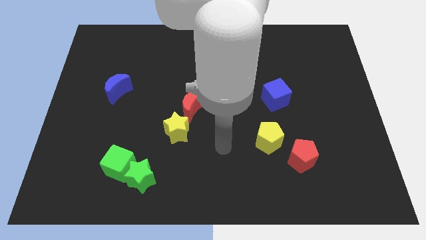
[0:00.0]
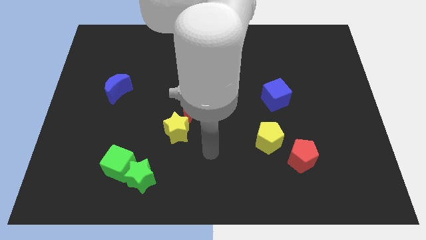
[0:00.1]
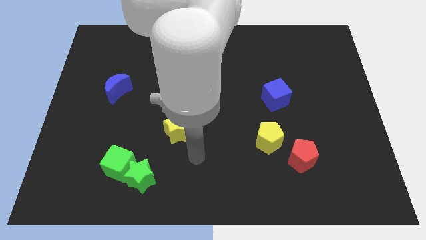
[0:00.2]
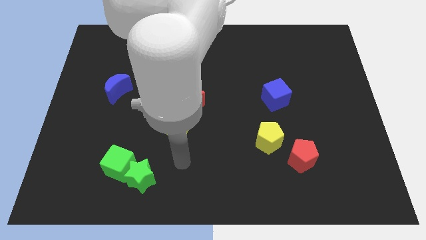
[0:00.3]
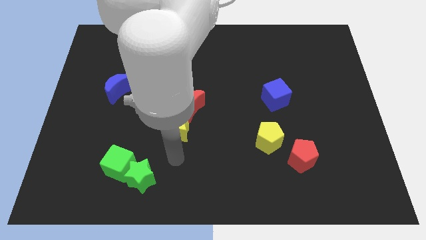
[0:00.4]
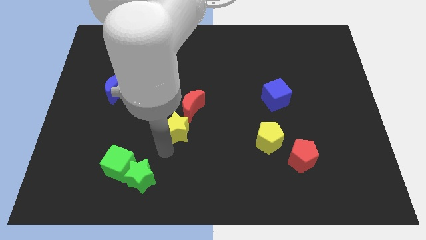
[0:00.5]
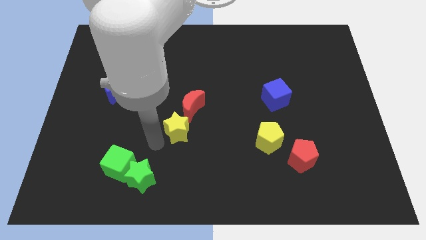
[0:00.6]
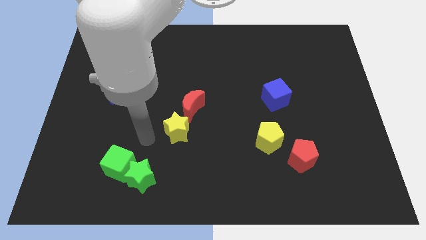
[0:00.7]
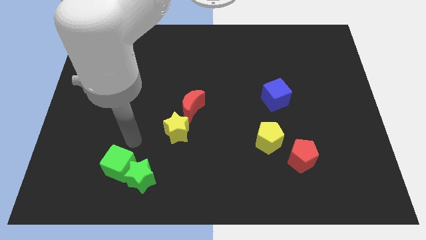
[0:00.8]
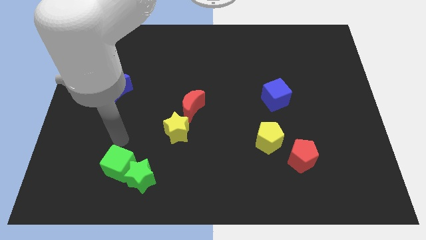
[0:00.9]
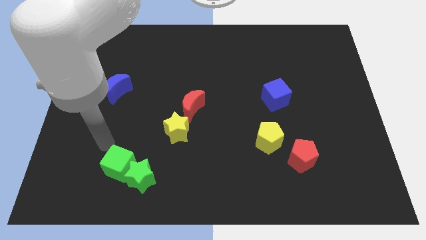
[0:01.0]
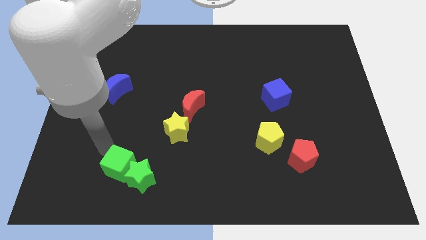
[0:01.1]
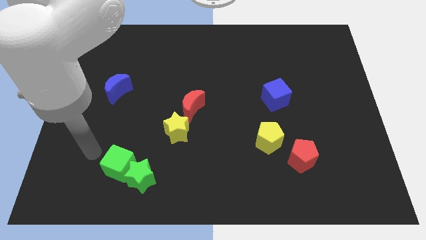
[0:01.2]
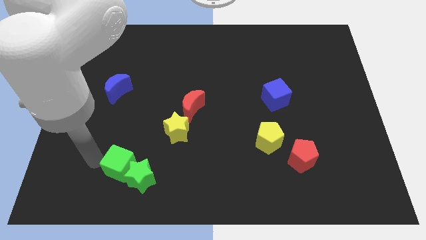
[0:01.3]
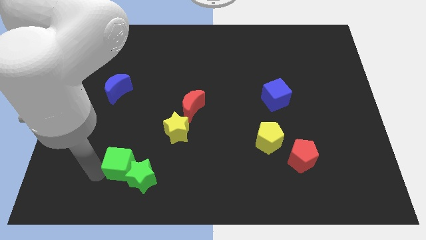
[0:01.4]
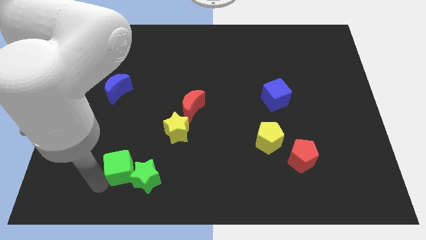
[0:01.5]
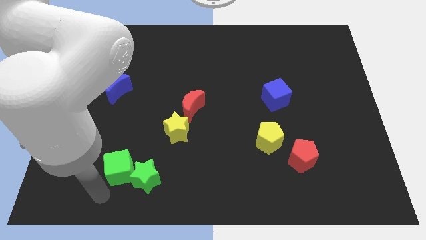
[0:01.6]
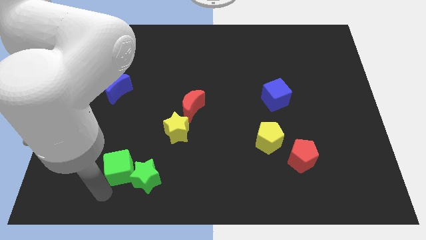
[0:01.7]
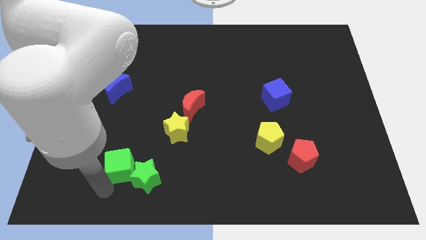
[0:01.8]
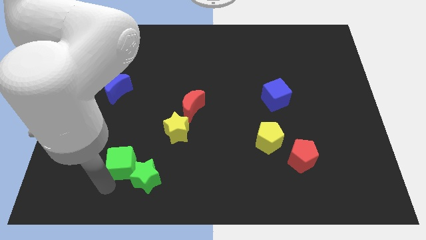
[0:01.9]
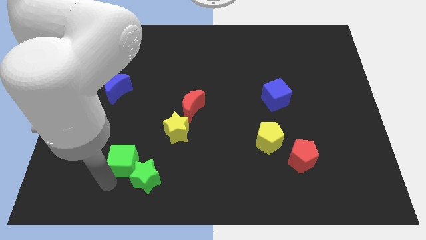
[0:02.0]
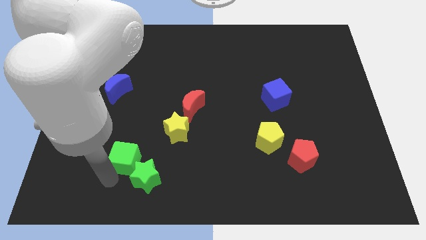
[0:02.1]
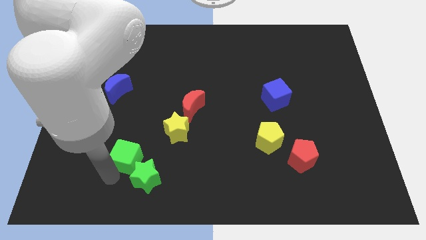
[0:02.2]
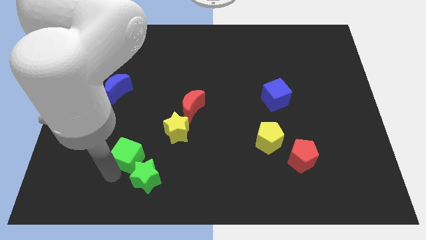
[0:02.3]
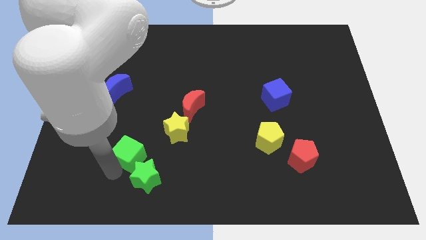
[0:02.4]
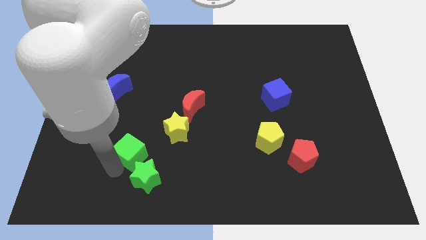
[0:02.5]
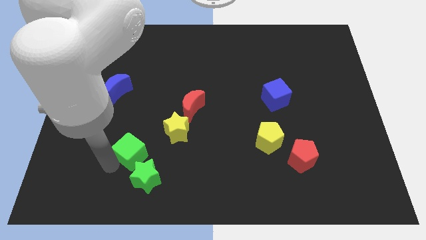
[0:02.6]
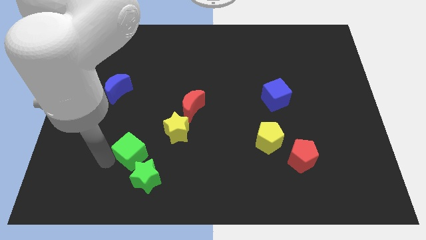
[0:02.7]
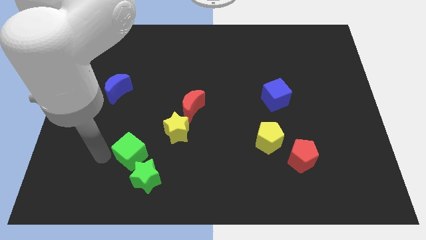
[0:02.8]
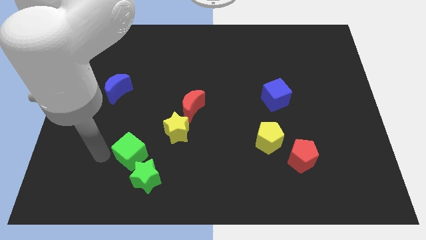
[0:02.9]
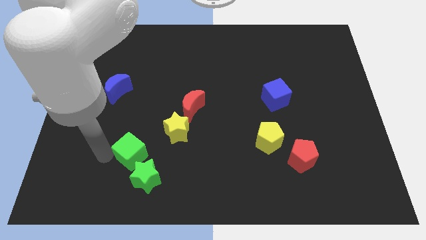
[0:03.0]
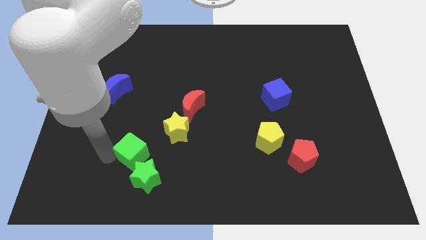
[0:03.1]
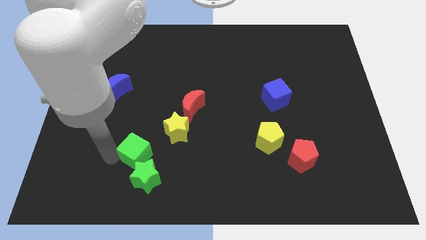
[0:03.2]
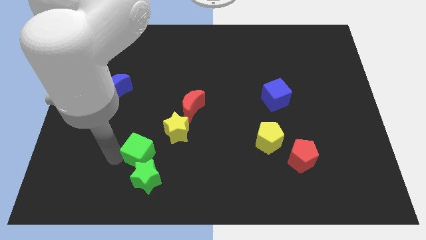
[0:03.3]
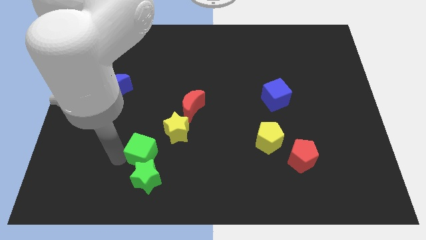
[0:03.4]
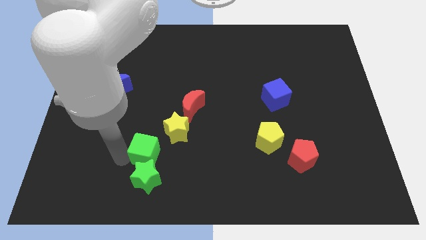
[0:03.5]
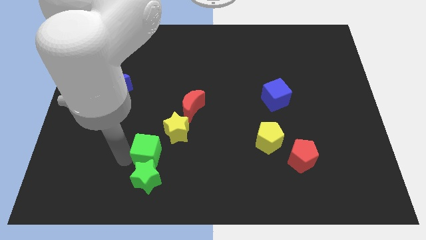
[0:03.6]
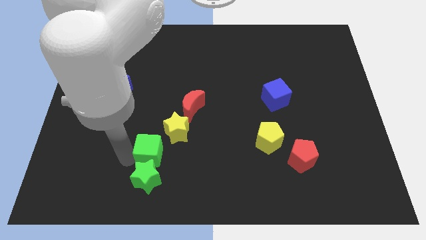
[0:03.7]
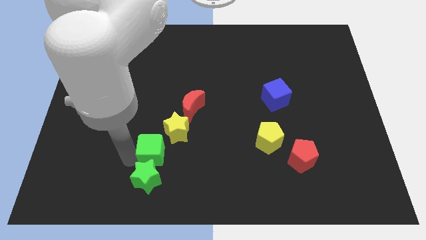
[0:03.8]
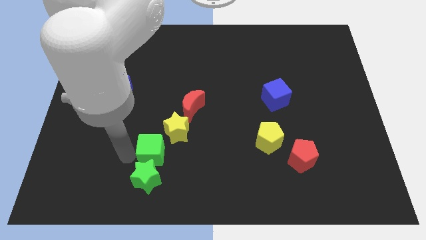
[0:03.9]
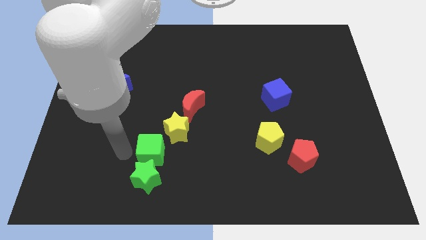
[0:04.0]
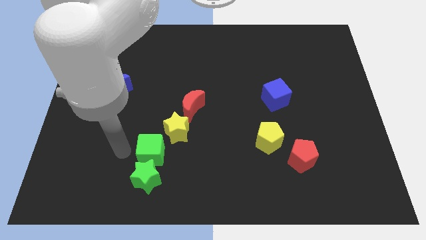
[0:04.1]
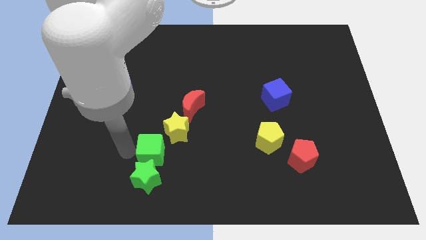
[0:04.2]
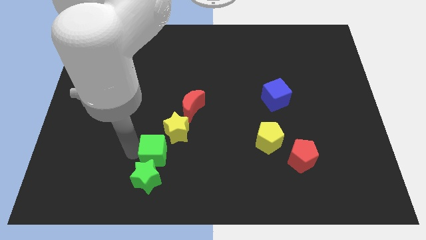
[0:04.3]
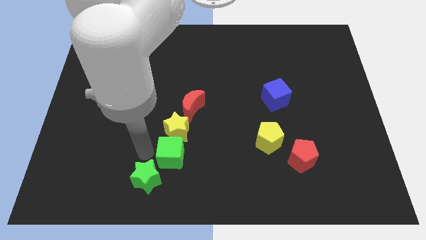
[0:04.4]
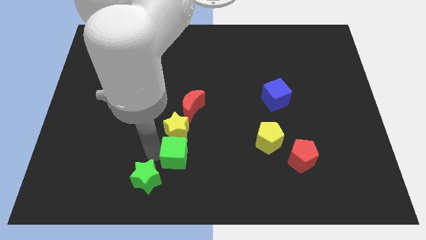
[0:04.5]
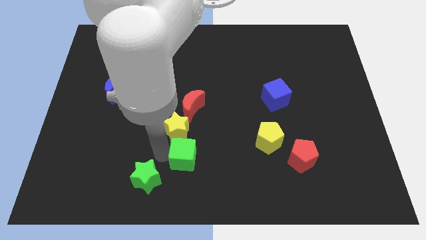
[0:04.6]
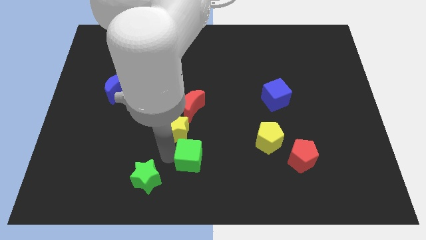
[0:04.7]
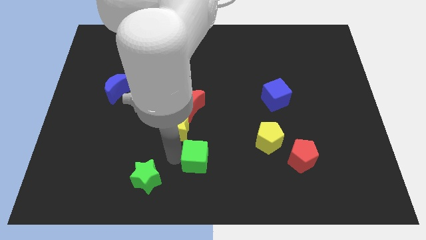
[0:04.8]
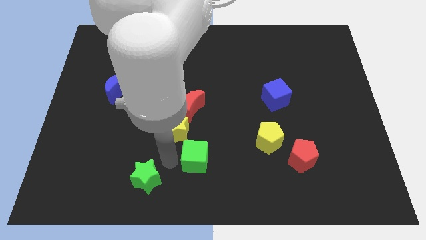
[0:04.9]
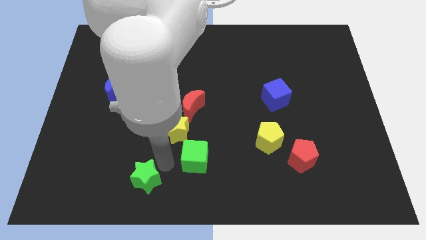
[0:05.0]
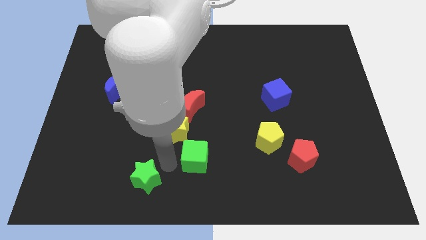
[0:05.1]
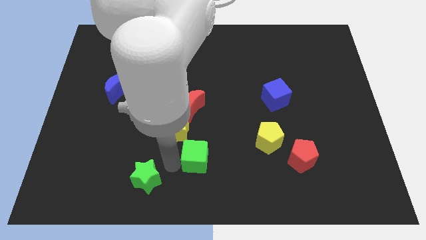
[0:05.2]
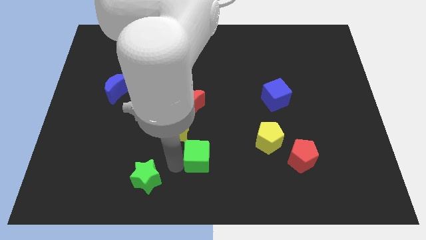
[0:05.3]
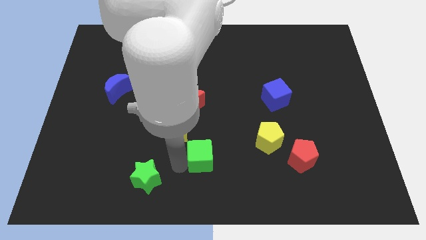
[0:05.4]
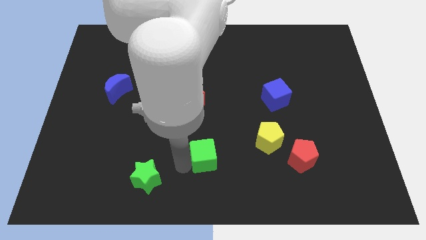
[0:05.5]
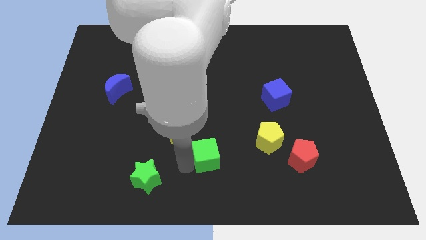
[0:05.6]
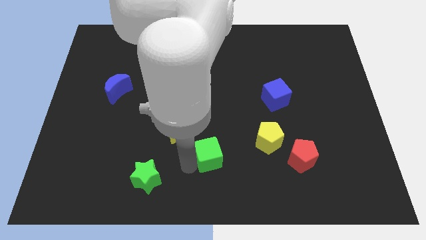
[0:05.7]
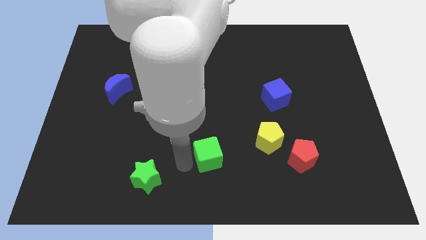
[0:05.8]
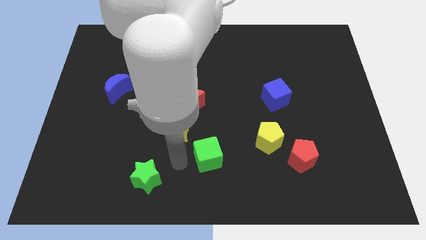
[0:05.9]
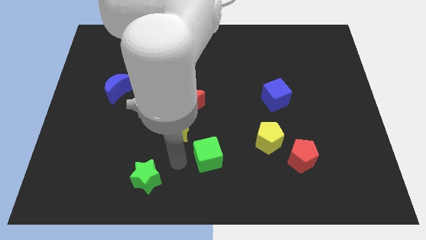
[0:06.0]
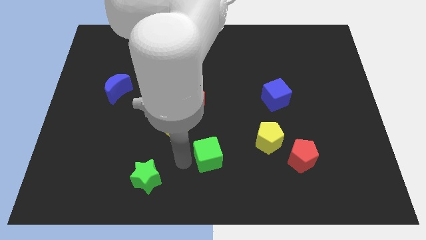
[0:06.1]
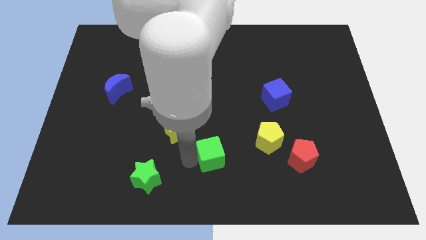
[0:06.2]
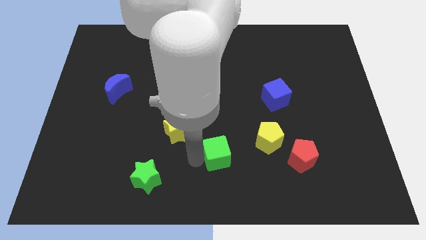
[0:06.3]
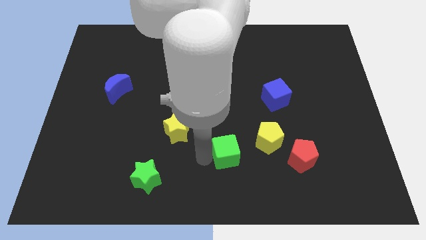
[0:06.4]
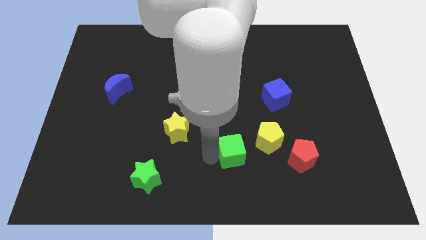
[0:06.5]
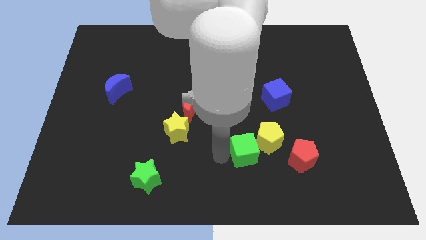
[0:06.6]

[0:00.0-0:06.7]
slide the green cube to the yellow pentagon
